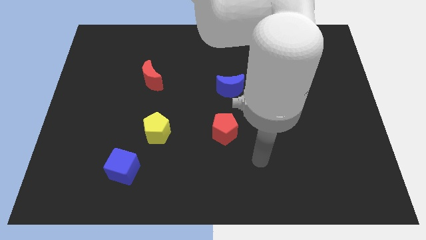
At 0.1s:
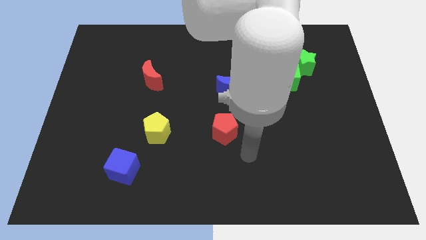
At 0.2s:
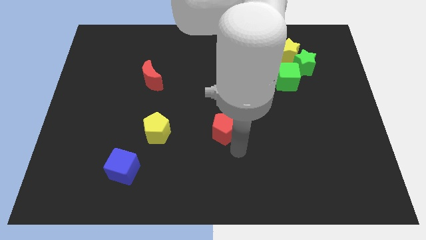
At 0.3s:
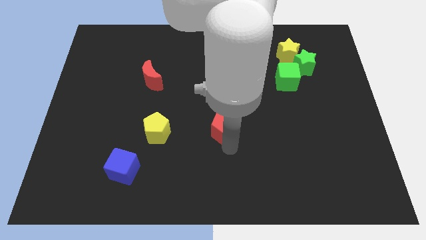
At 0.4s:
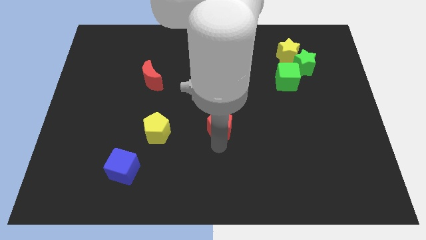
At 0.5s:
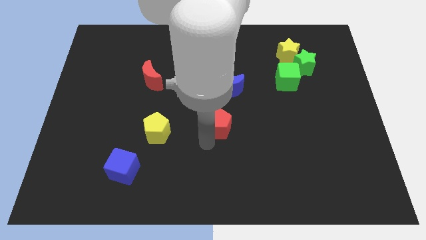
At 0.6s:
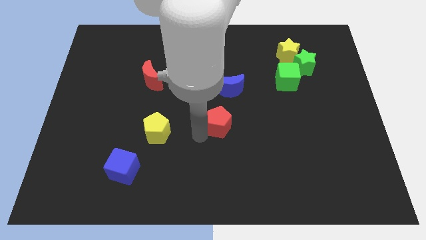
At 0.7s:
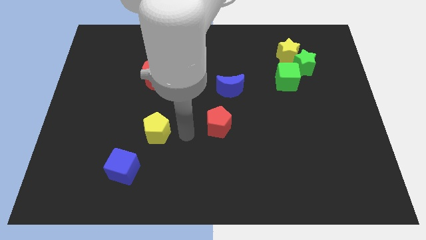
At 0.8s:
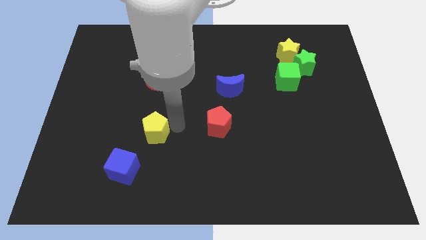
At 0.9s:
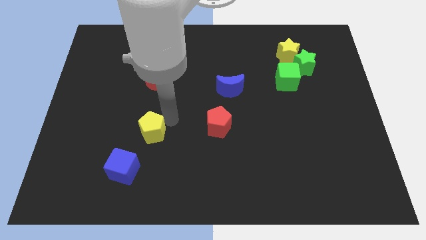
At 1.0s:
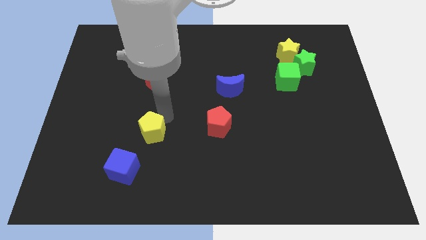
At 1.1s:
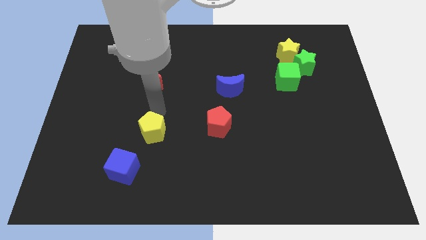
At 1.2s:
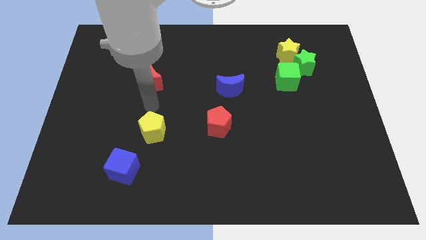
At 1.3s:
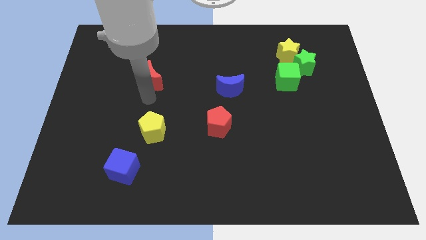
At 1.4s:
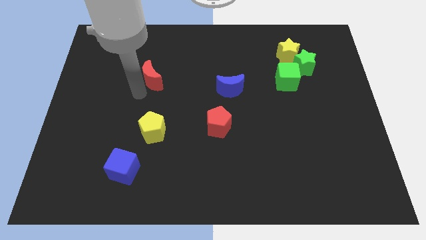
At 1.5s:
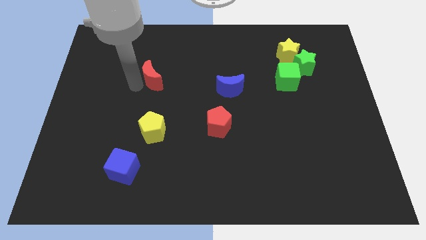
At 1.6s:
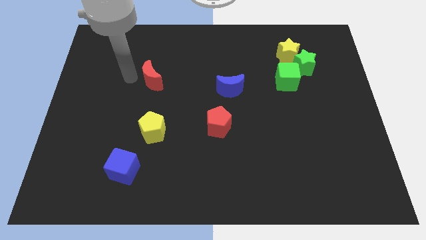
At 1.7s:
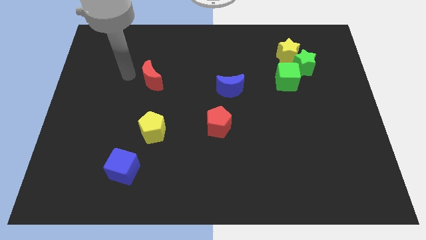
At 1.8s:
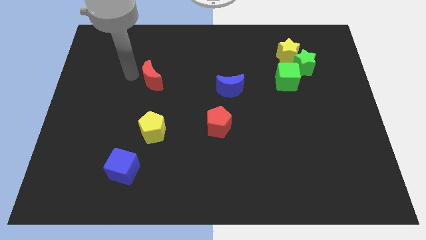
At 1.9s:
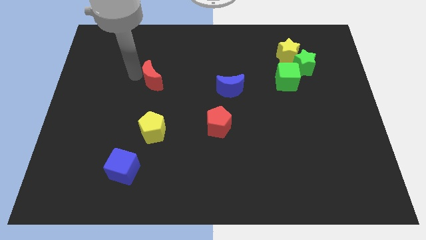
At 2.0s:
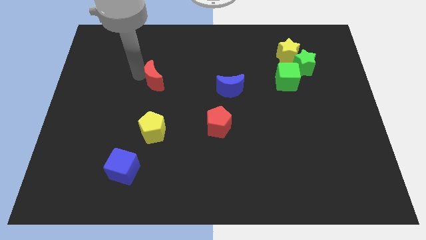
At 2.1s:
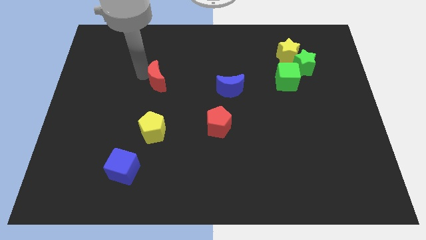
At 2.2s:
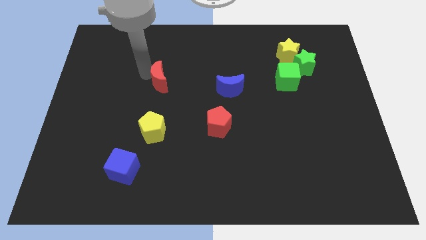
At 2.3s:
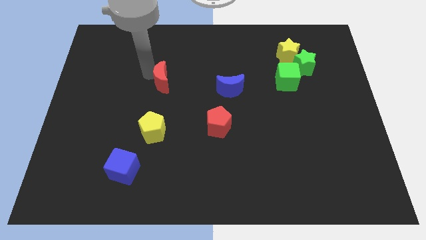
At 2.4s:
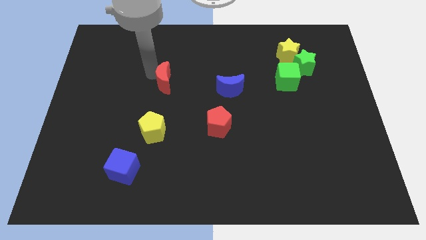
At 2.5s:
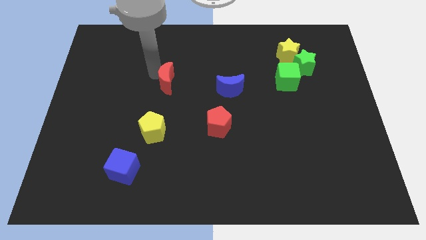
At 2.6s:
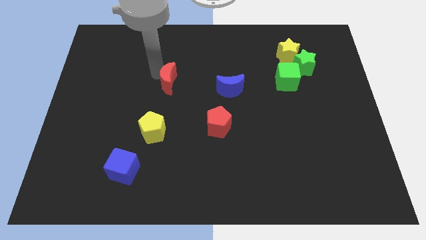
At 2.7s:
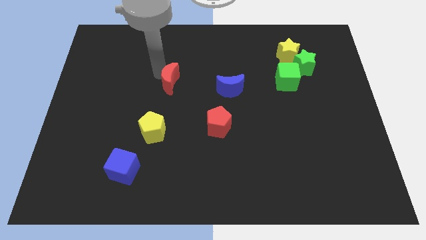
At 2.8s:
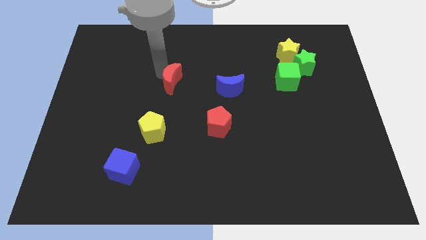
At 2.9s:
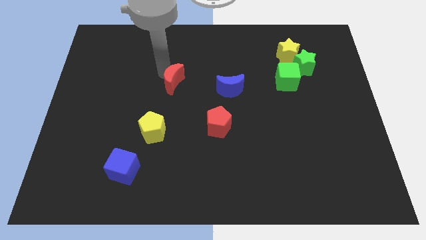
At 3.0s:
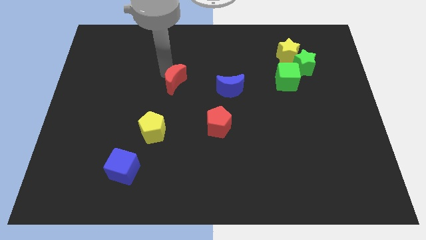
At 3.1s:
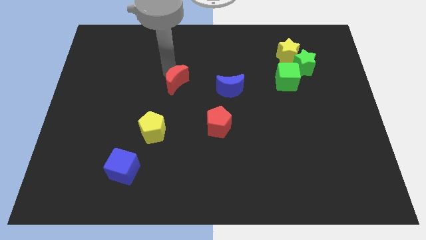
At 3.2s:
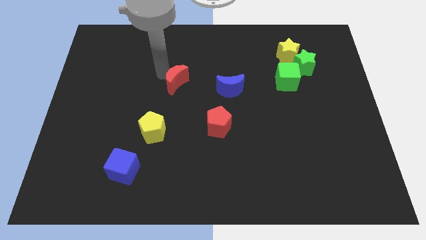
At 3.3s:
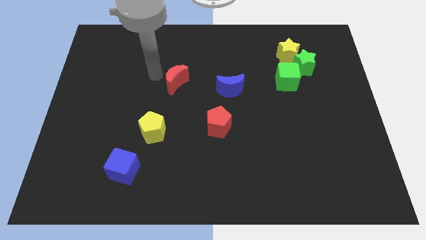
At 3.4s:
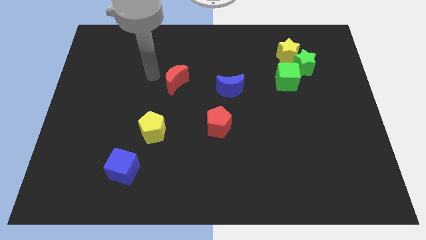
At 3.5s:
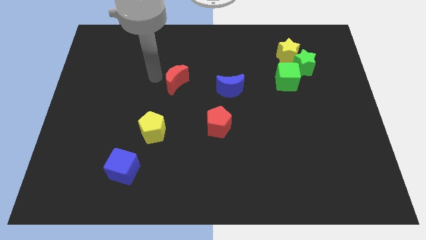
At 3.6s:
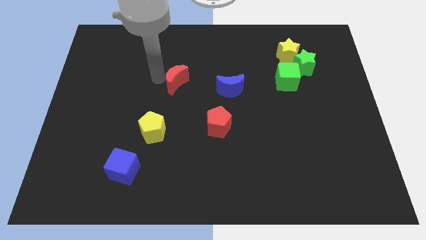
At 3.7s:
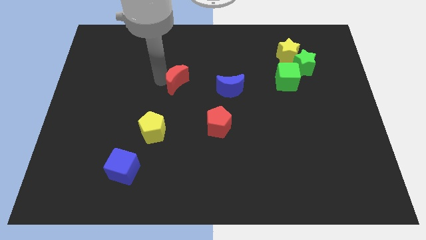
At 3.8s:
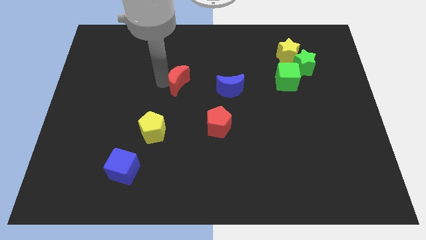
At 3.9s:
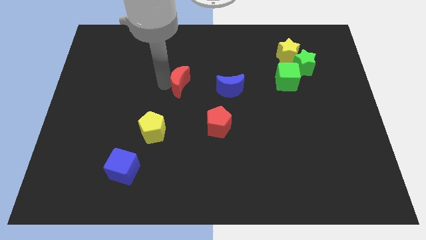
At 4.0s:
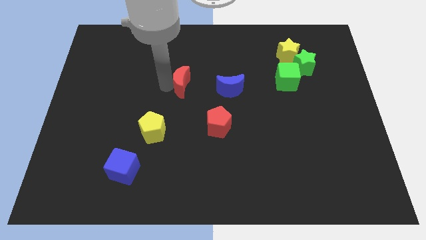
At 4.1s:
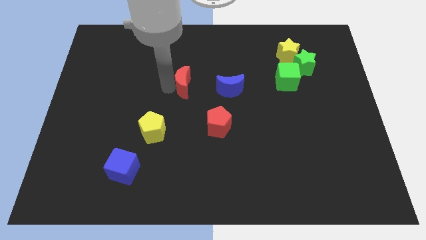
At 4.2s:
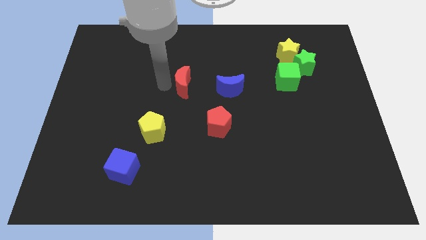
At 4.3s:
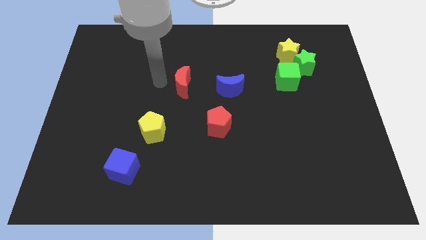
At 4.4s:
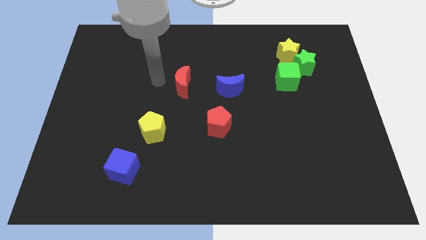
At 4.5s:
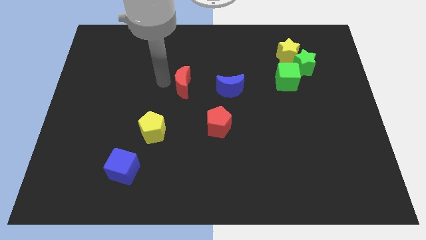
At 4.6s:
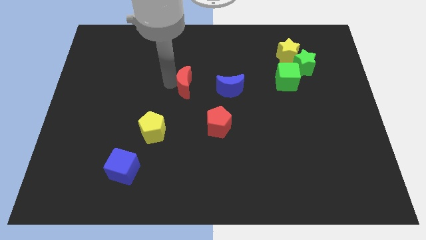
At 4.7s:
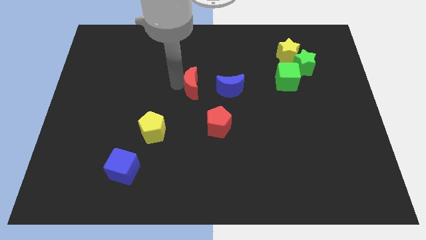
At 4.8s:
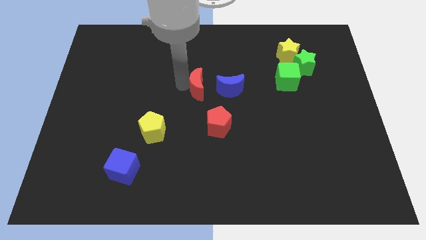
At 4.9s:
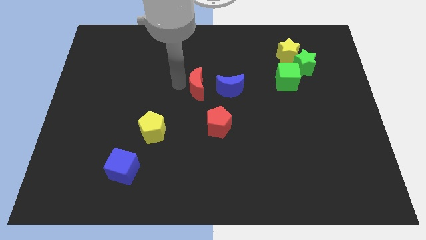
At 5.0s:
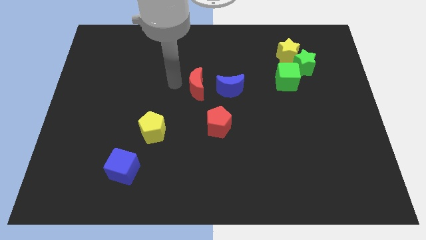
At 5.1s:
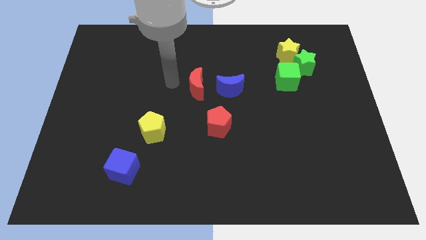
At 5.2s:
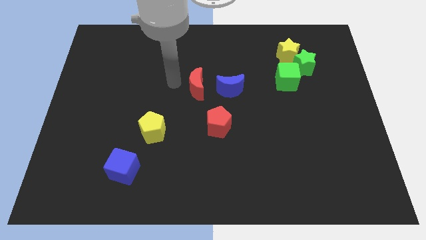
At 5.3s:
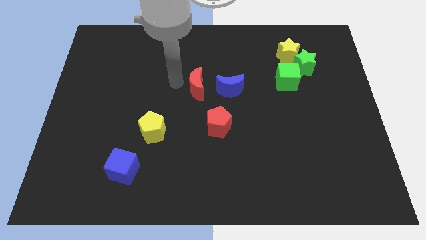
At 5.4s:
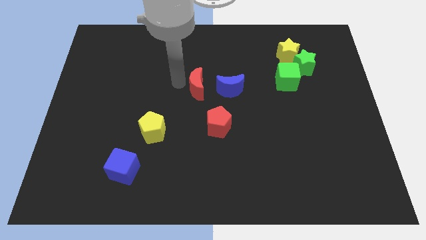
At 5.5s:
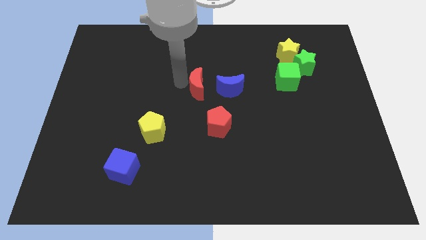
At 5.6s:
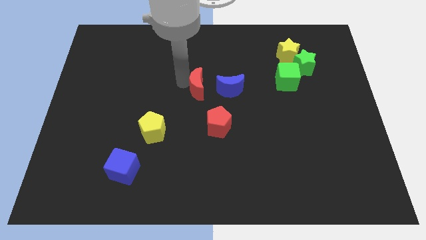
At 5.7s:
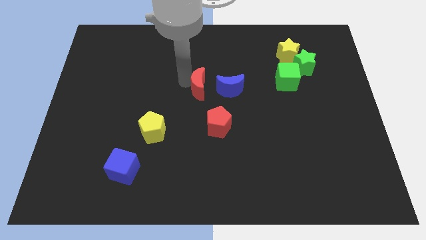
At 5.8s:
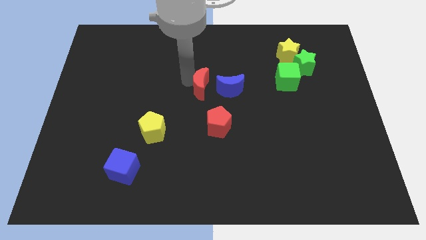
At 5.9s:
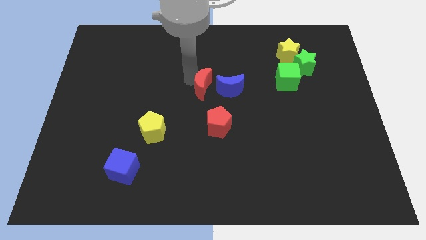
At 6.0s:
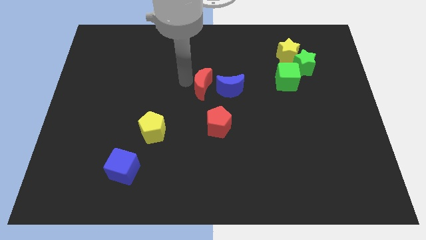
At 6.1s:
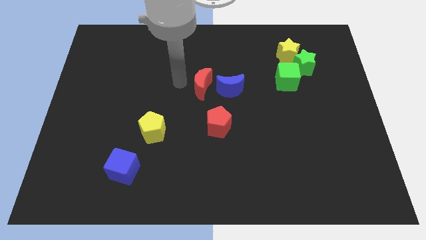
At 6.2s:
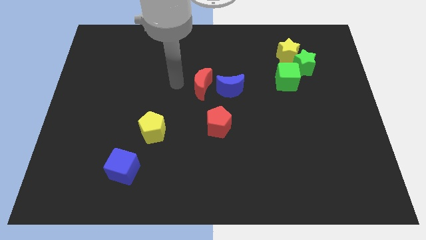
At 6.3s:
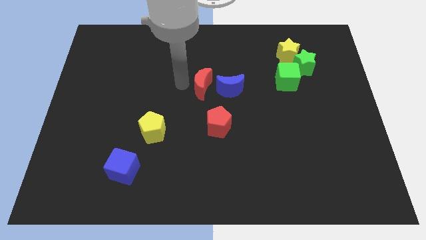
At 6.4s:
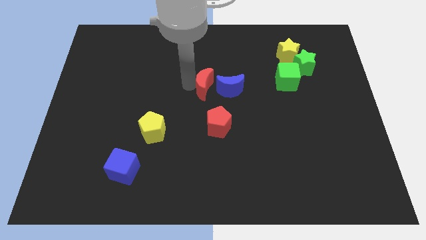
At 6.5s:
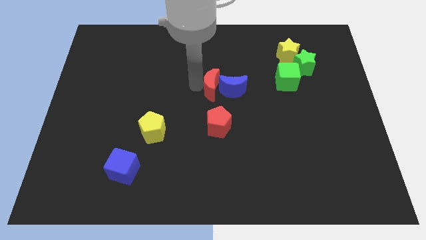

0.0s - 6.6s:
move the red moon towards the blue moon

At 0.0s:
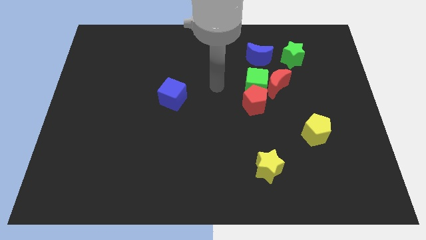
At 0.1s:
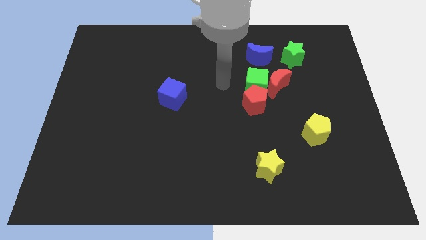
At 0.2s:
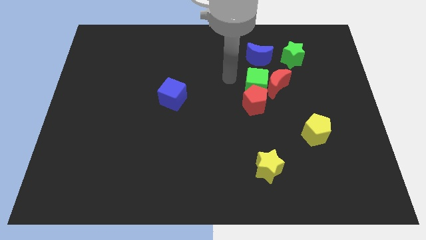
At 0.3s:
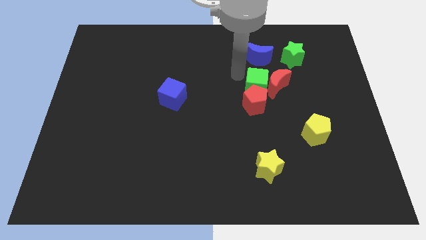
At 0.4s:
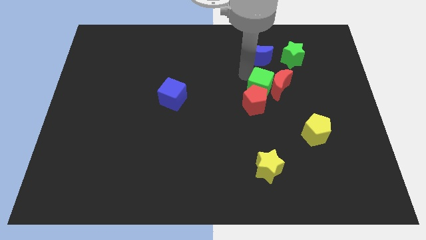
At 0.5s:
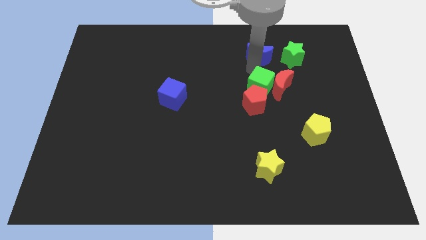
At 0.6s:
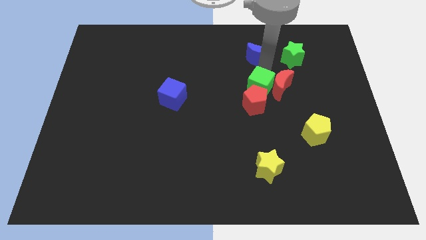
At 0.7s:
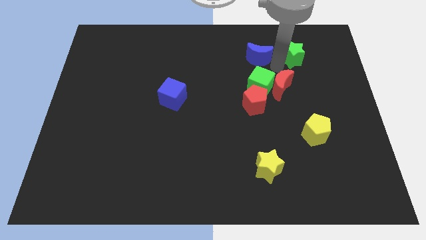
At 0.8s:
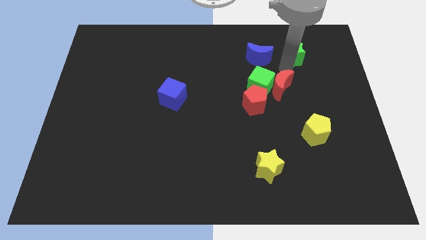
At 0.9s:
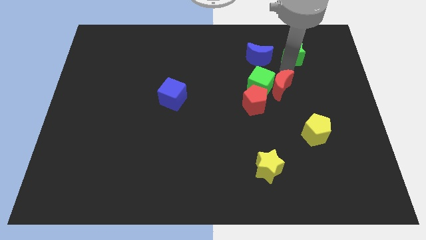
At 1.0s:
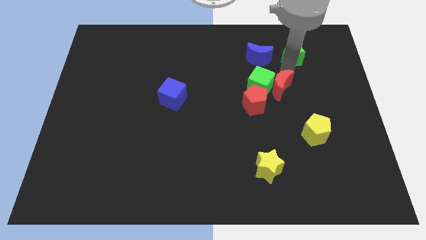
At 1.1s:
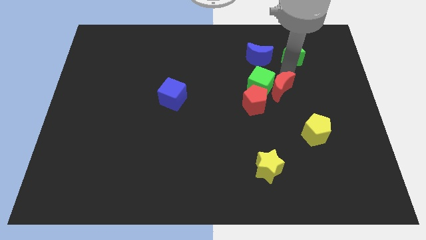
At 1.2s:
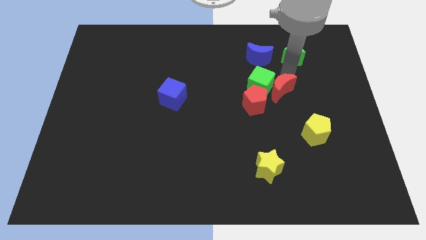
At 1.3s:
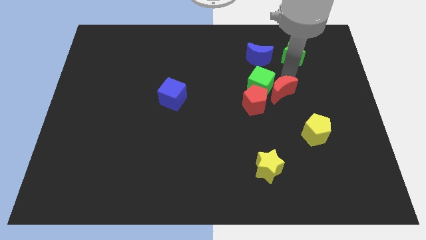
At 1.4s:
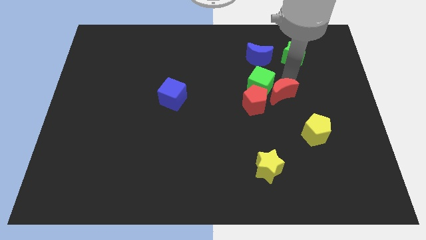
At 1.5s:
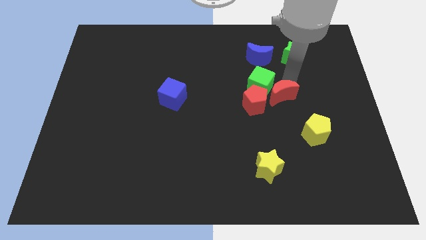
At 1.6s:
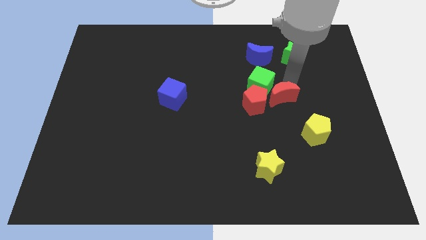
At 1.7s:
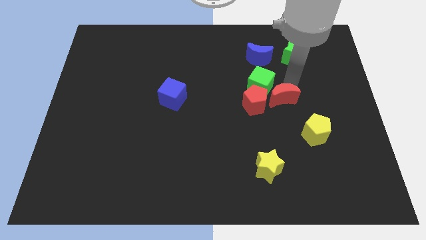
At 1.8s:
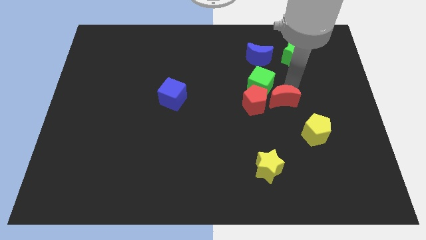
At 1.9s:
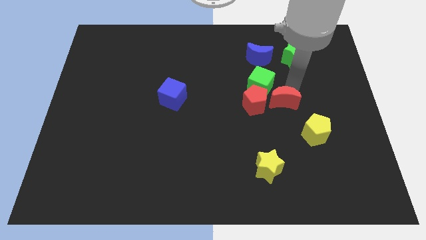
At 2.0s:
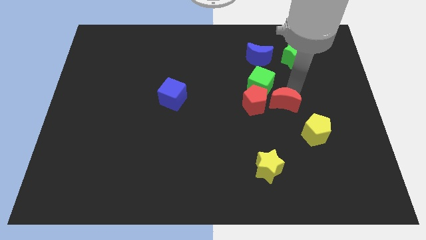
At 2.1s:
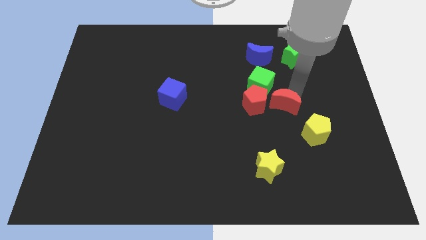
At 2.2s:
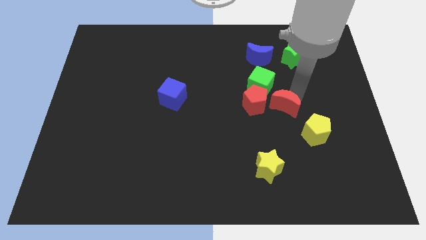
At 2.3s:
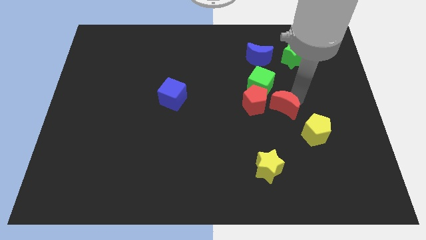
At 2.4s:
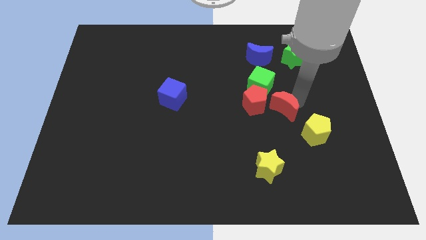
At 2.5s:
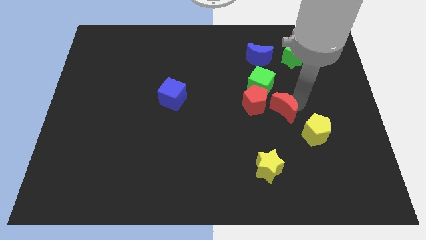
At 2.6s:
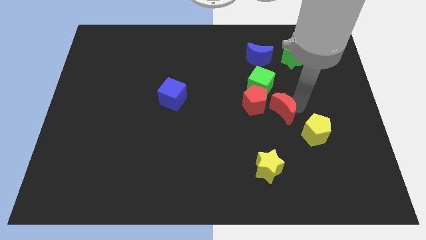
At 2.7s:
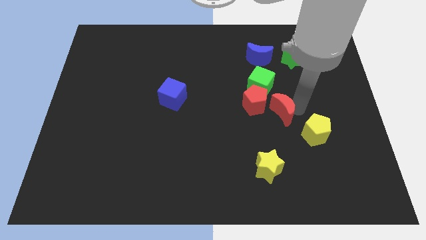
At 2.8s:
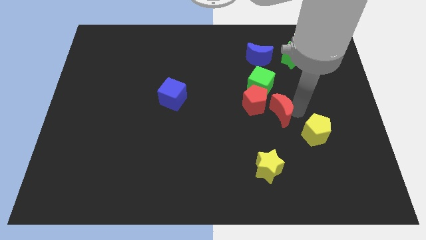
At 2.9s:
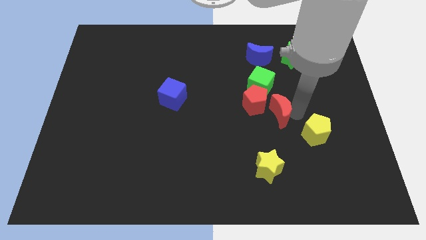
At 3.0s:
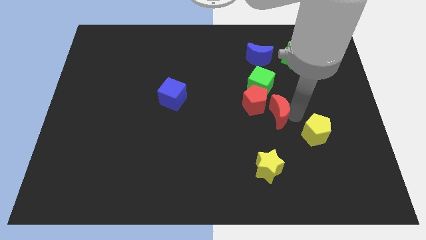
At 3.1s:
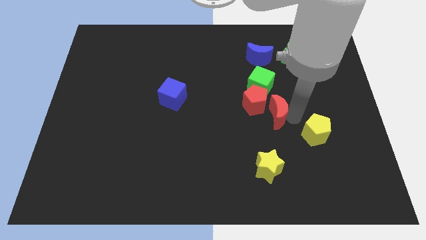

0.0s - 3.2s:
slide the red moon next to the red pentagon
